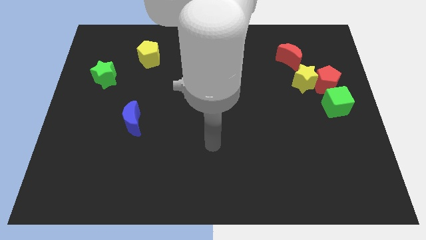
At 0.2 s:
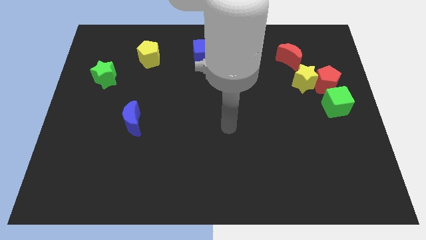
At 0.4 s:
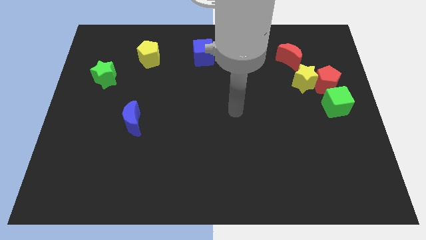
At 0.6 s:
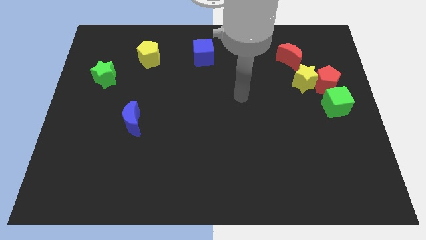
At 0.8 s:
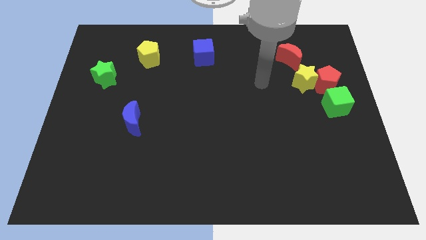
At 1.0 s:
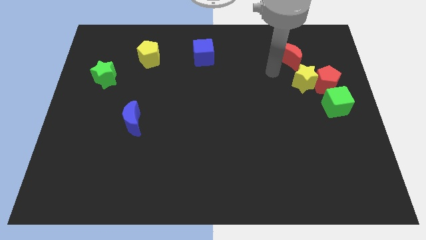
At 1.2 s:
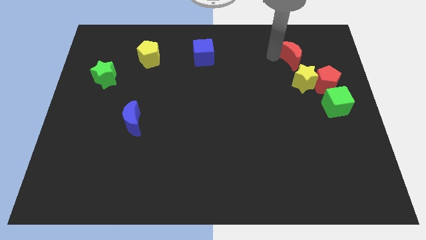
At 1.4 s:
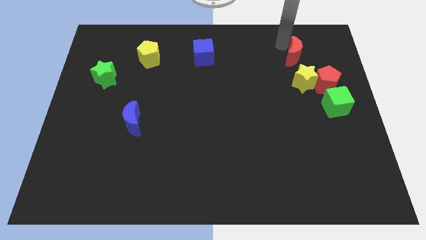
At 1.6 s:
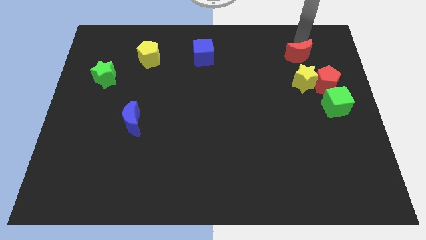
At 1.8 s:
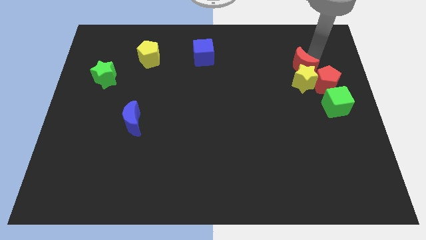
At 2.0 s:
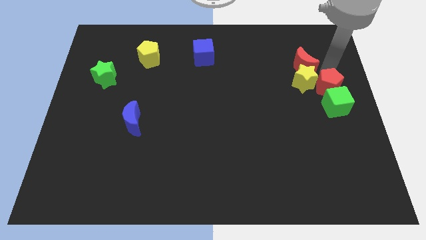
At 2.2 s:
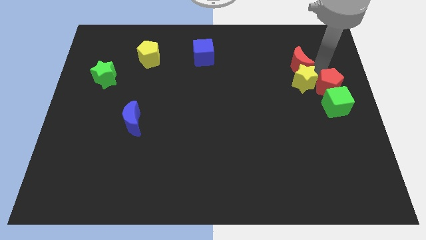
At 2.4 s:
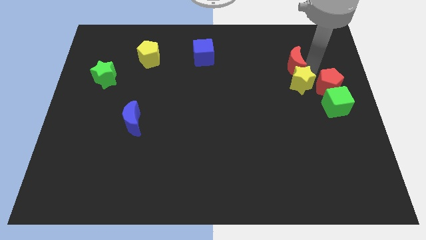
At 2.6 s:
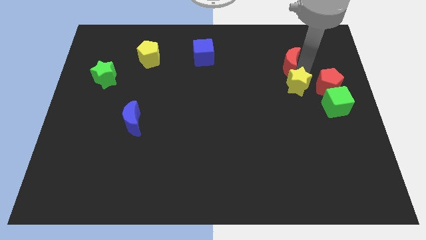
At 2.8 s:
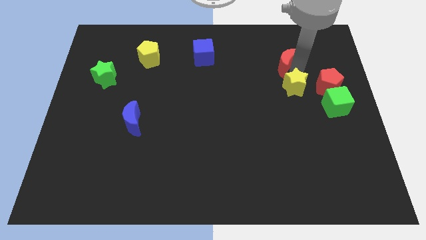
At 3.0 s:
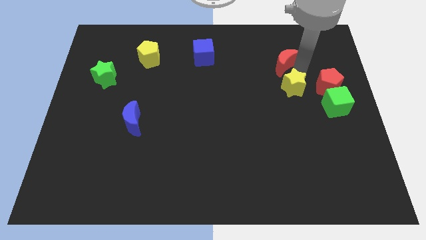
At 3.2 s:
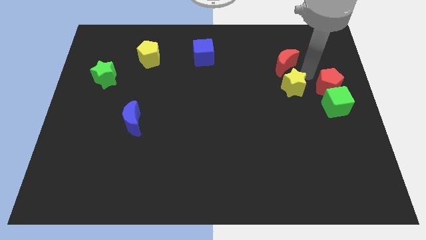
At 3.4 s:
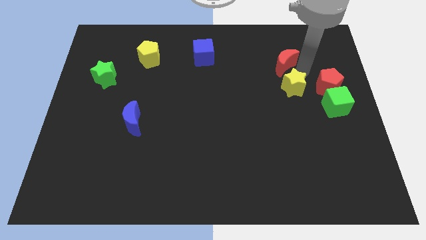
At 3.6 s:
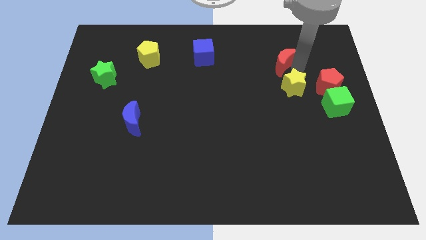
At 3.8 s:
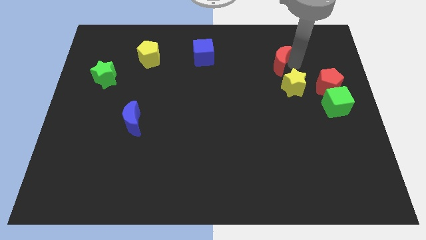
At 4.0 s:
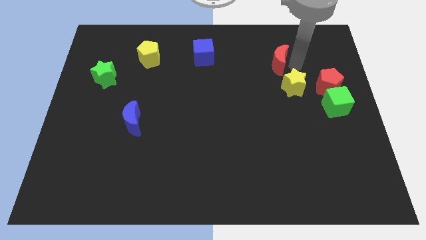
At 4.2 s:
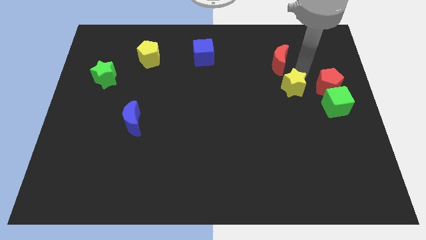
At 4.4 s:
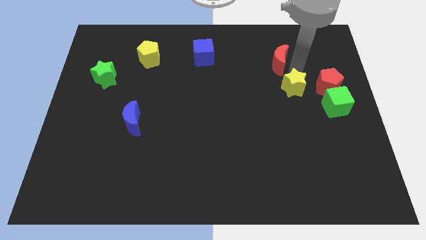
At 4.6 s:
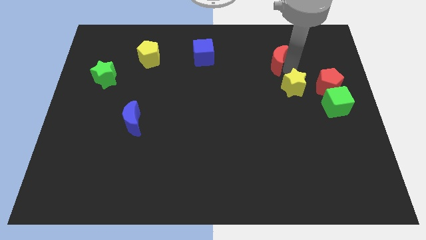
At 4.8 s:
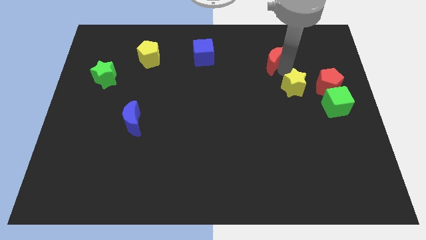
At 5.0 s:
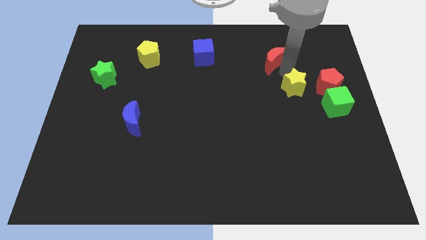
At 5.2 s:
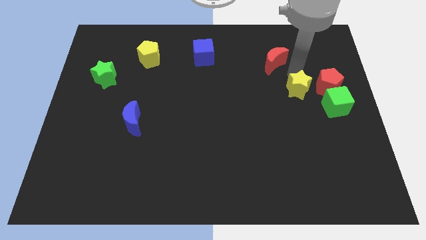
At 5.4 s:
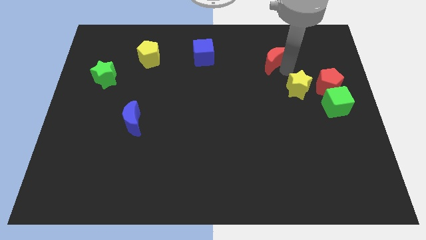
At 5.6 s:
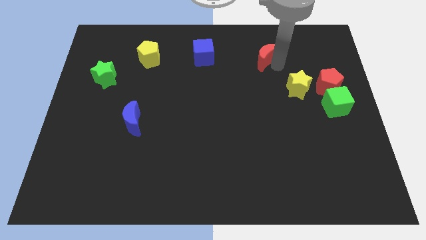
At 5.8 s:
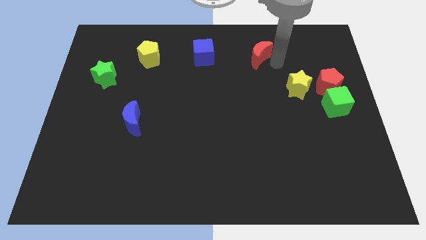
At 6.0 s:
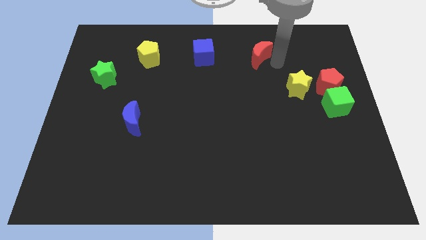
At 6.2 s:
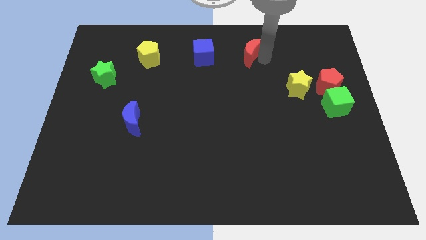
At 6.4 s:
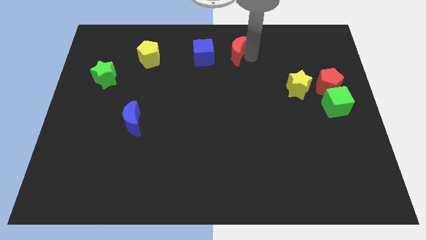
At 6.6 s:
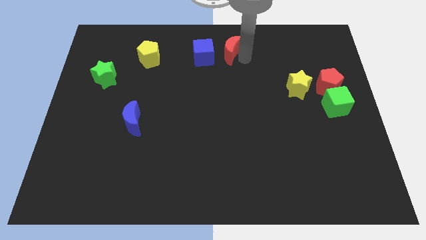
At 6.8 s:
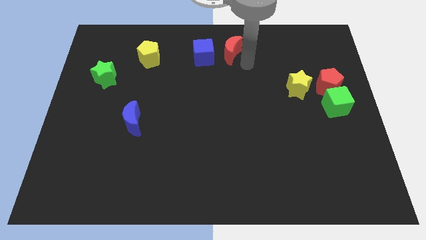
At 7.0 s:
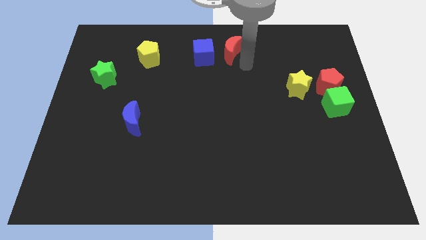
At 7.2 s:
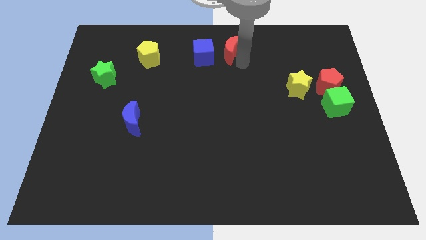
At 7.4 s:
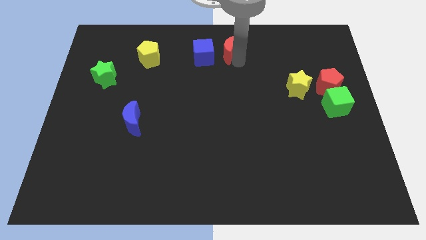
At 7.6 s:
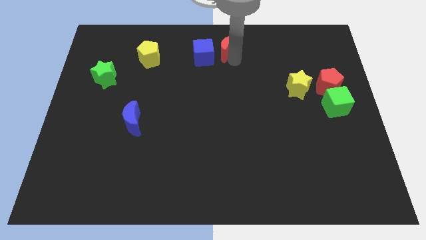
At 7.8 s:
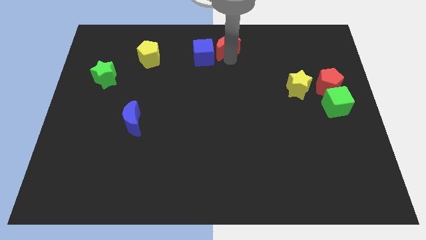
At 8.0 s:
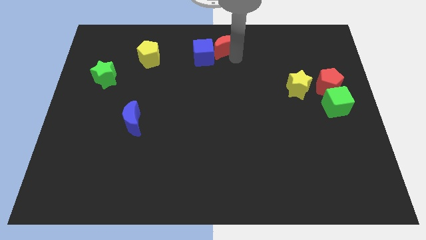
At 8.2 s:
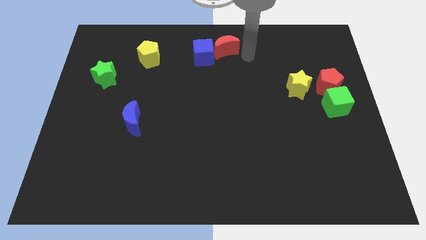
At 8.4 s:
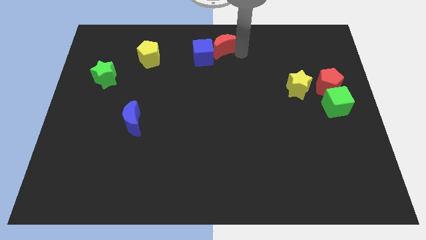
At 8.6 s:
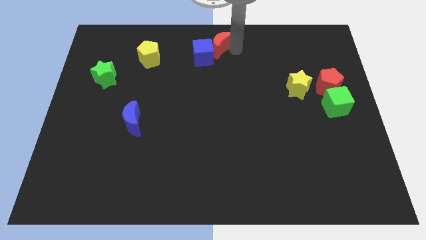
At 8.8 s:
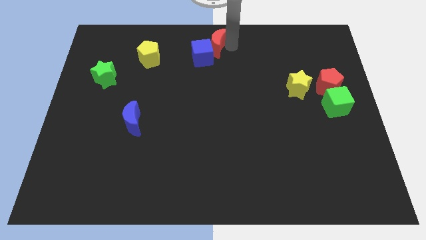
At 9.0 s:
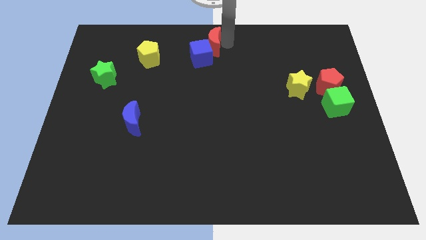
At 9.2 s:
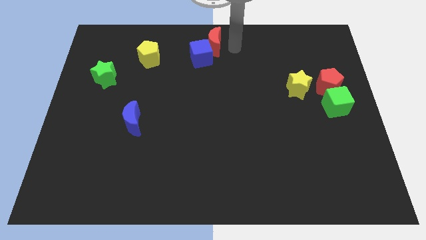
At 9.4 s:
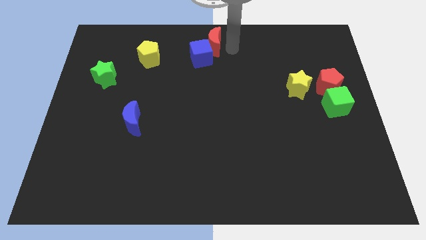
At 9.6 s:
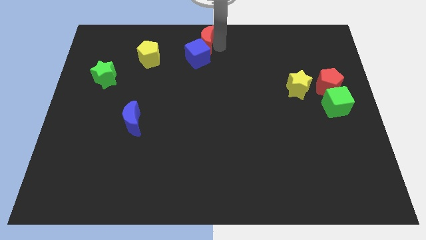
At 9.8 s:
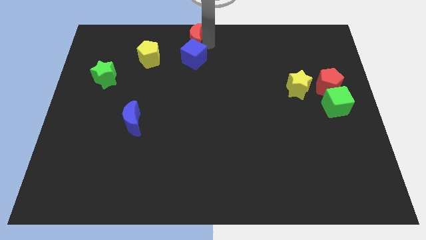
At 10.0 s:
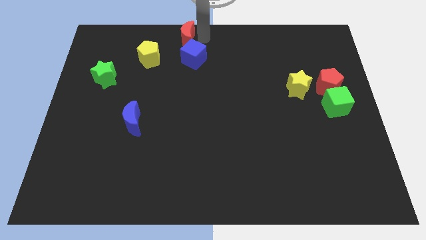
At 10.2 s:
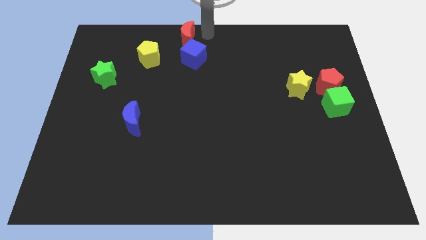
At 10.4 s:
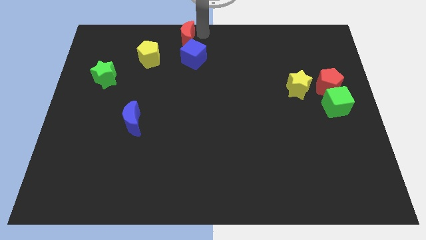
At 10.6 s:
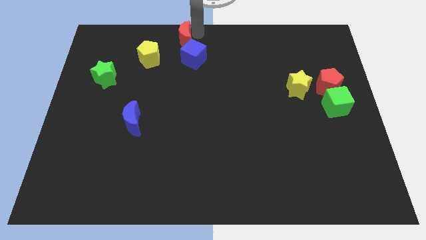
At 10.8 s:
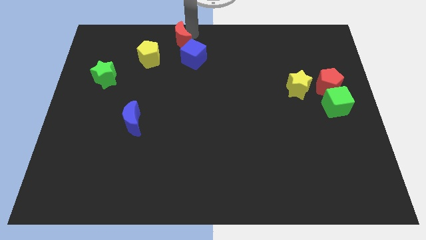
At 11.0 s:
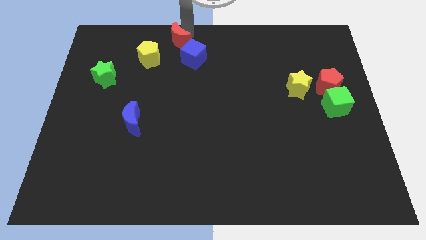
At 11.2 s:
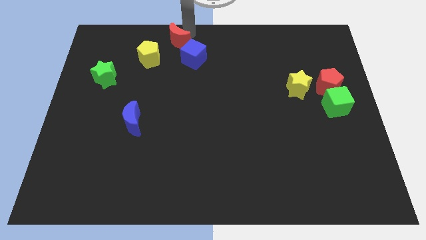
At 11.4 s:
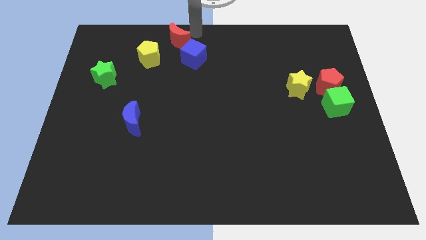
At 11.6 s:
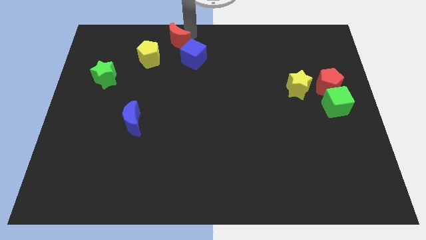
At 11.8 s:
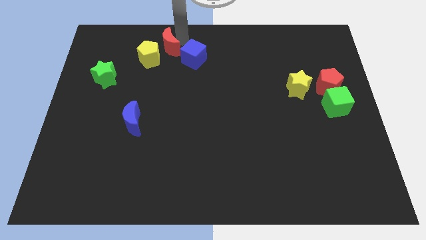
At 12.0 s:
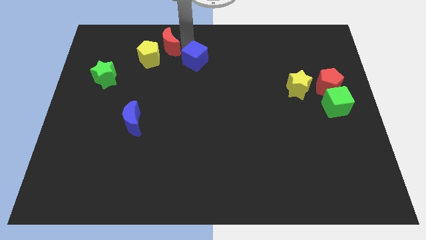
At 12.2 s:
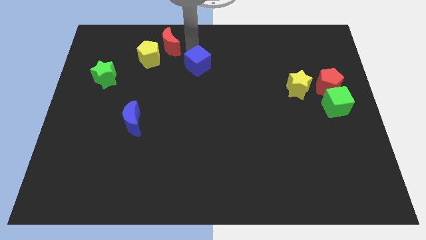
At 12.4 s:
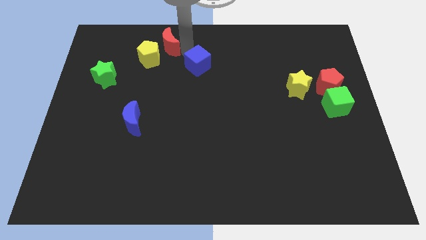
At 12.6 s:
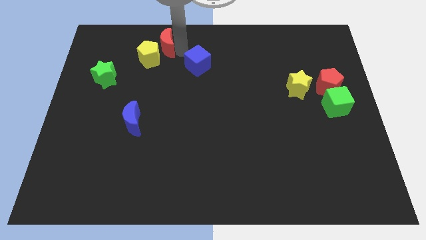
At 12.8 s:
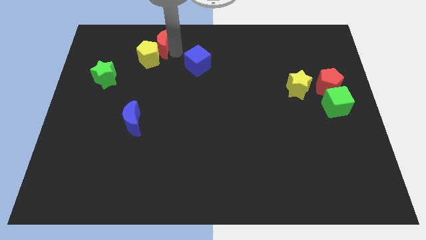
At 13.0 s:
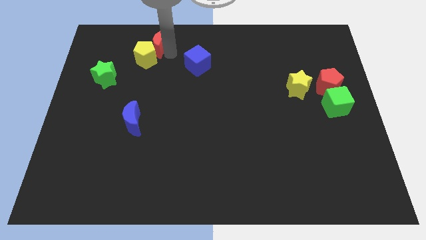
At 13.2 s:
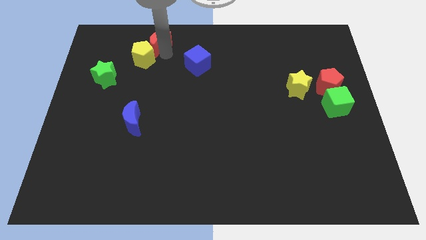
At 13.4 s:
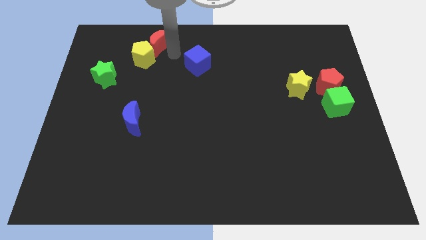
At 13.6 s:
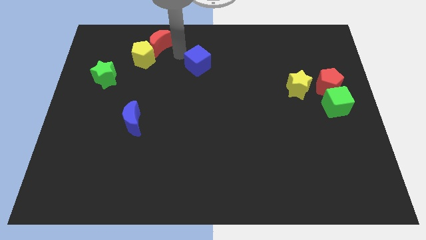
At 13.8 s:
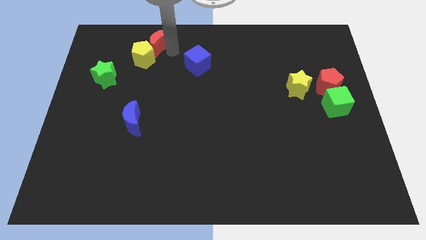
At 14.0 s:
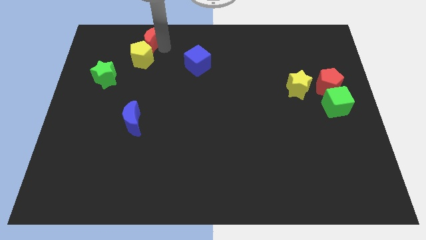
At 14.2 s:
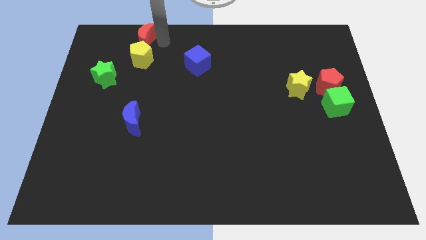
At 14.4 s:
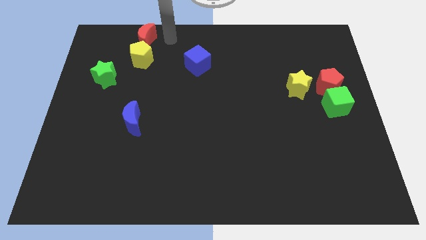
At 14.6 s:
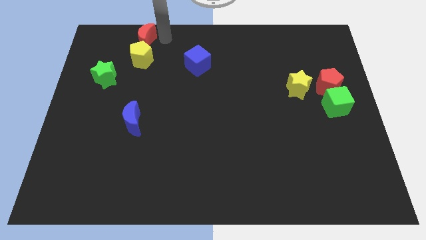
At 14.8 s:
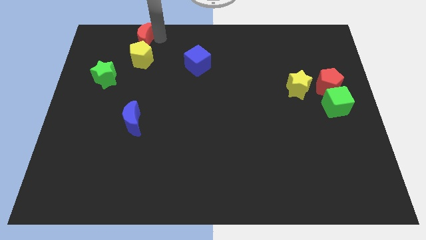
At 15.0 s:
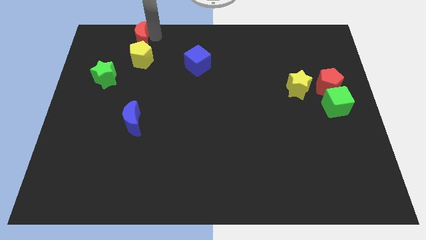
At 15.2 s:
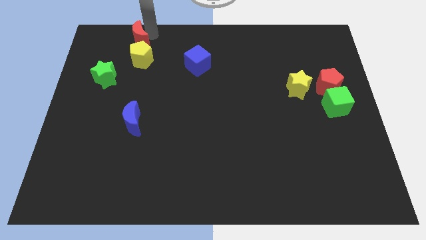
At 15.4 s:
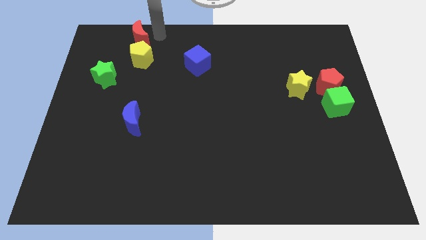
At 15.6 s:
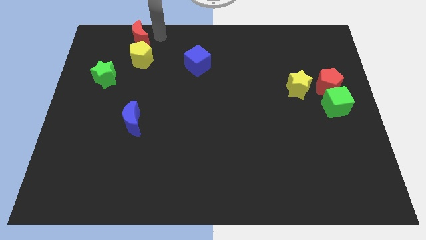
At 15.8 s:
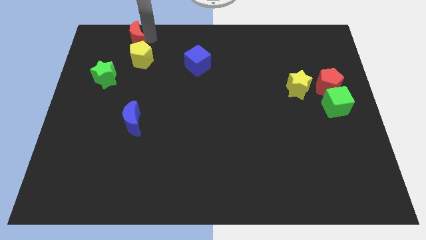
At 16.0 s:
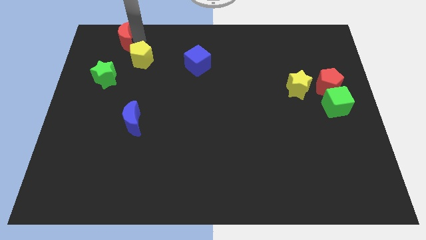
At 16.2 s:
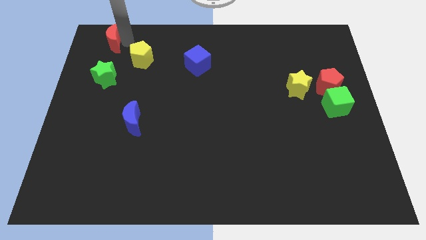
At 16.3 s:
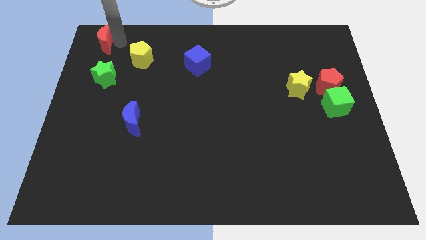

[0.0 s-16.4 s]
move the red moon to the upper left corner
